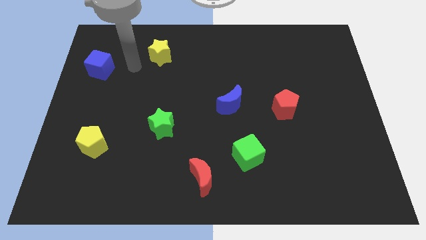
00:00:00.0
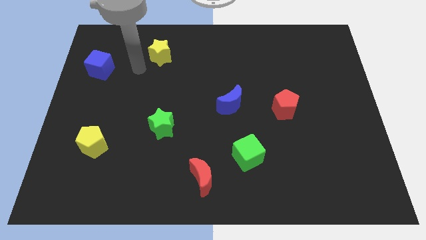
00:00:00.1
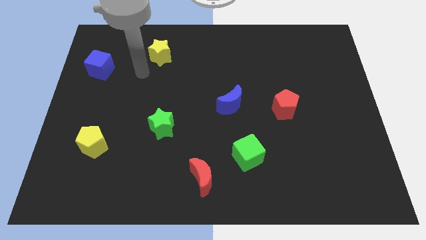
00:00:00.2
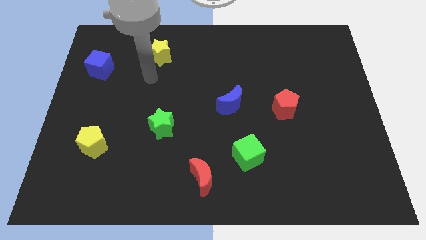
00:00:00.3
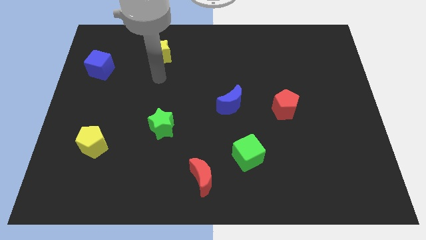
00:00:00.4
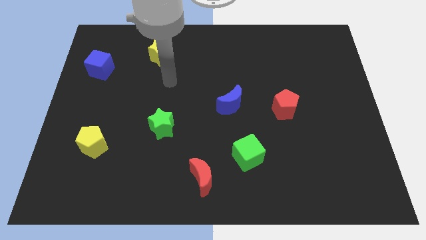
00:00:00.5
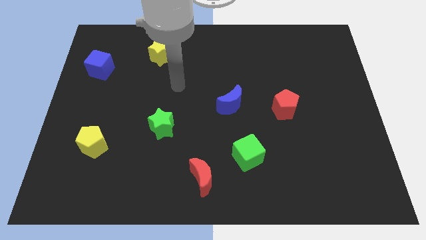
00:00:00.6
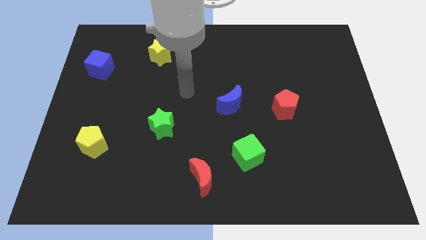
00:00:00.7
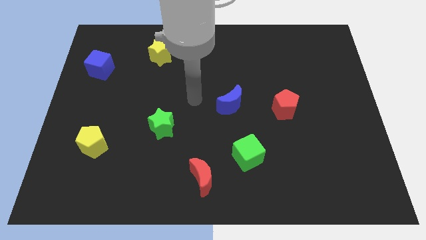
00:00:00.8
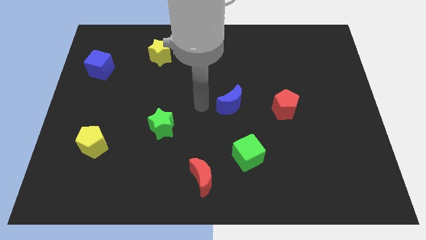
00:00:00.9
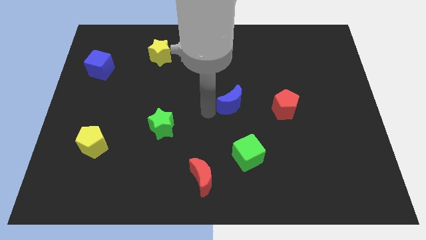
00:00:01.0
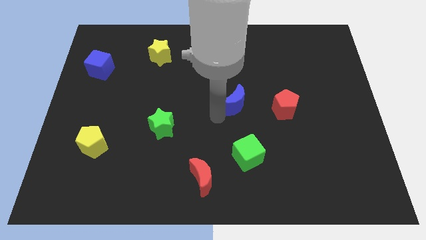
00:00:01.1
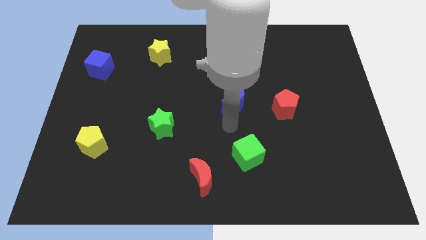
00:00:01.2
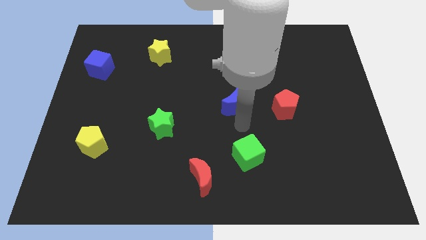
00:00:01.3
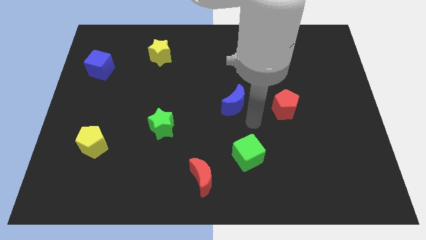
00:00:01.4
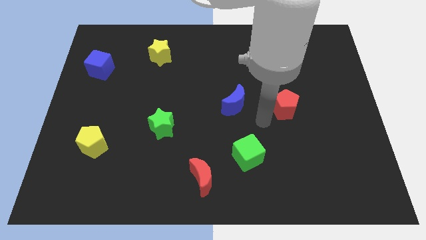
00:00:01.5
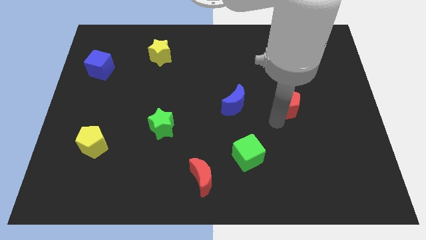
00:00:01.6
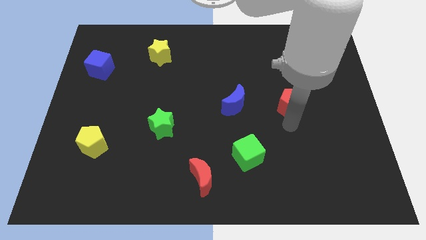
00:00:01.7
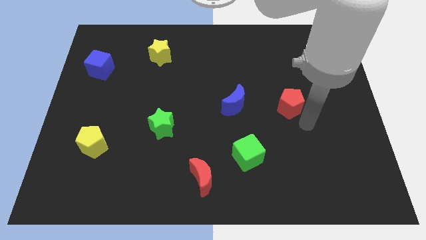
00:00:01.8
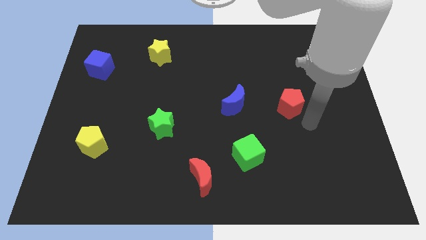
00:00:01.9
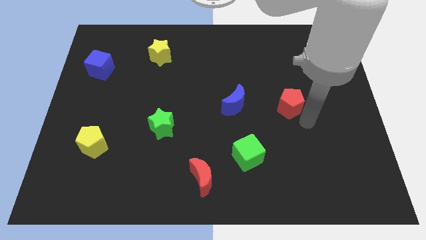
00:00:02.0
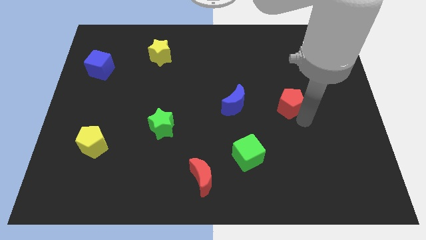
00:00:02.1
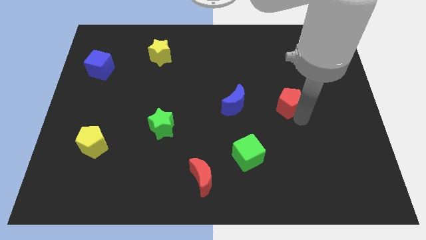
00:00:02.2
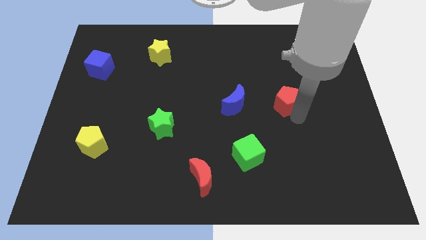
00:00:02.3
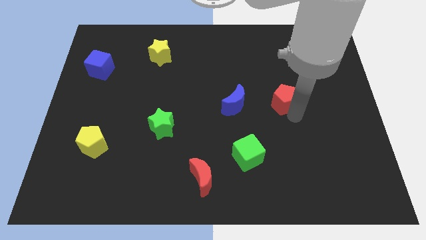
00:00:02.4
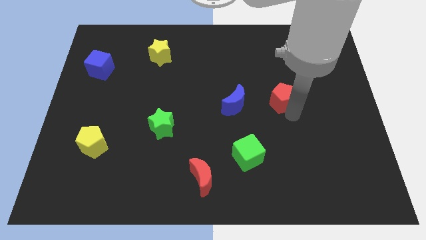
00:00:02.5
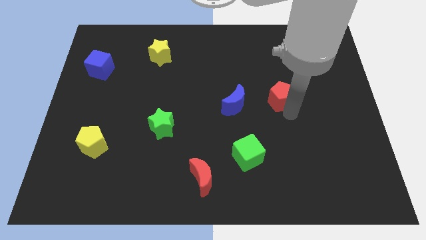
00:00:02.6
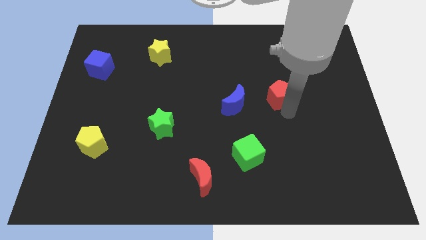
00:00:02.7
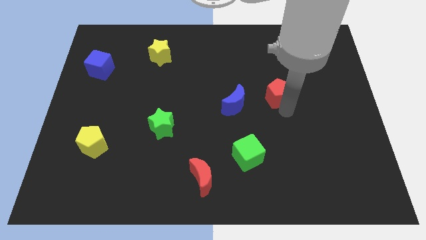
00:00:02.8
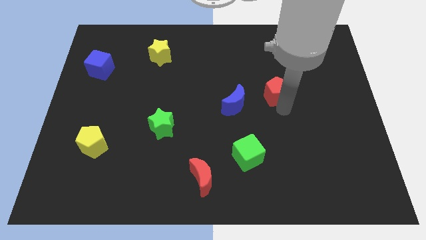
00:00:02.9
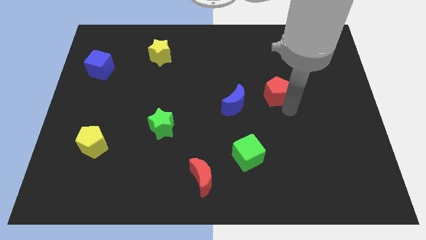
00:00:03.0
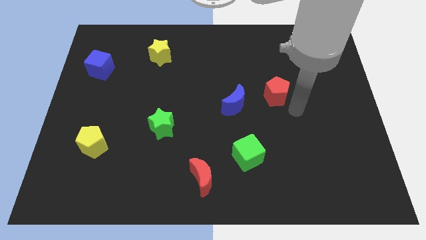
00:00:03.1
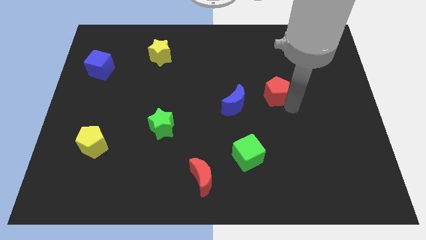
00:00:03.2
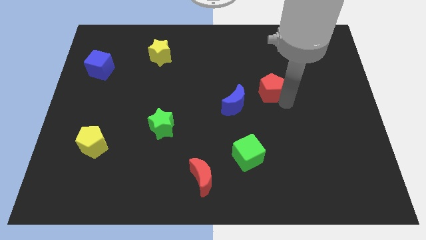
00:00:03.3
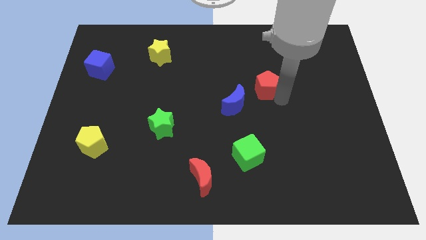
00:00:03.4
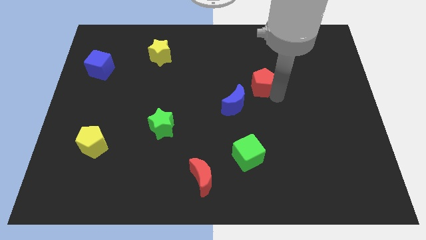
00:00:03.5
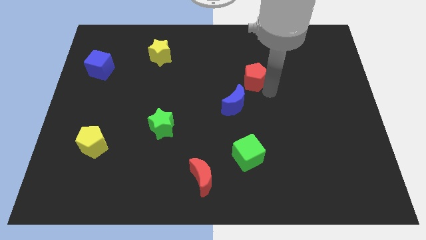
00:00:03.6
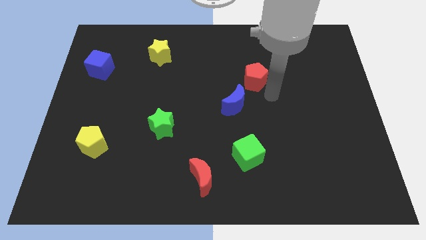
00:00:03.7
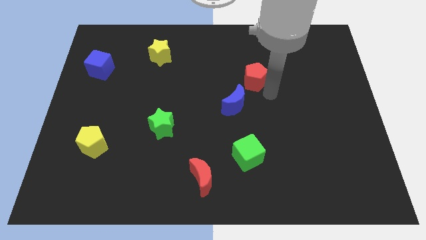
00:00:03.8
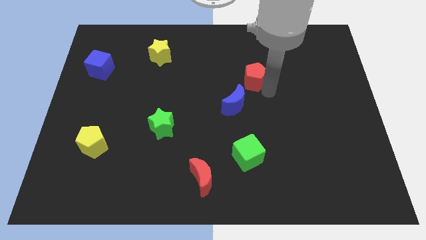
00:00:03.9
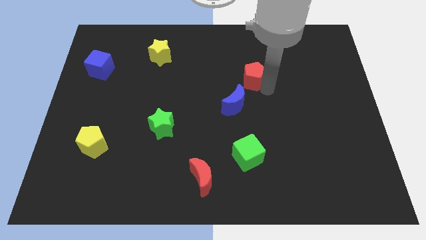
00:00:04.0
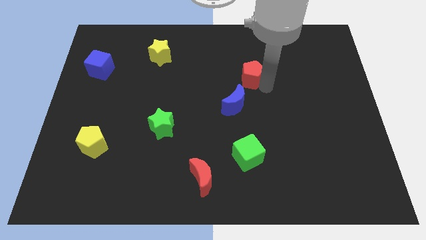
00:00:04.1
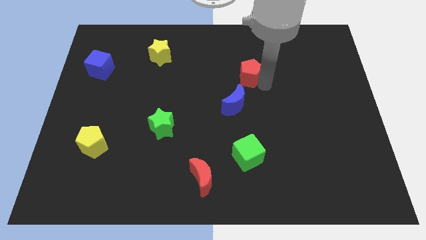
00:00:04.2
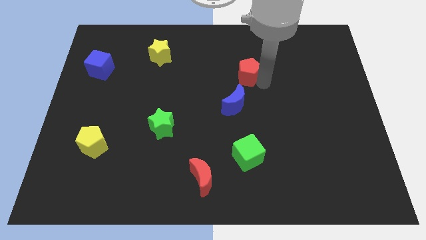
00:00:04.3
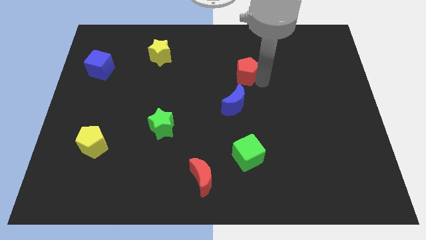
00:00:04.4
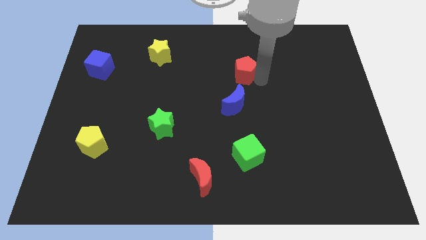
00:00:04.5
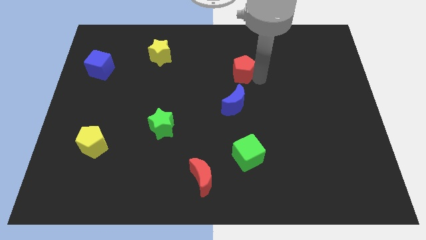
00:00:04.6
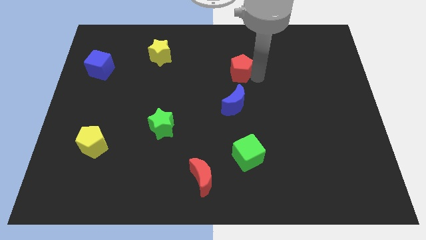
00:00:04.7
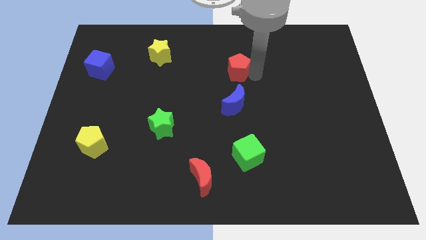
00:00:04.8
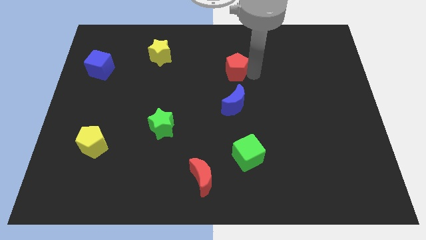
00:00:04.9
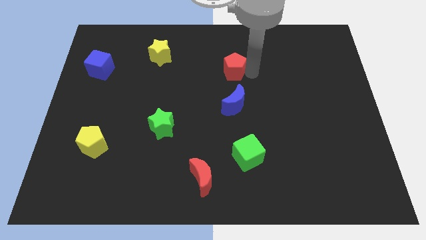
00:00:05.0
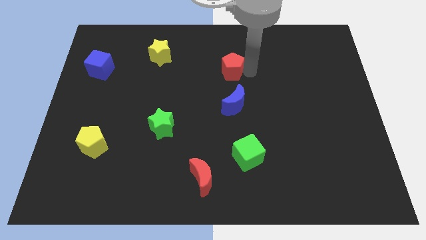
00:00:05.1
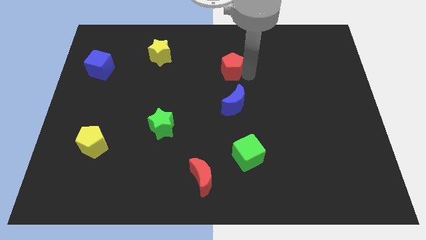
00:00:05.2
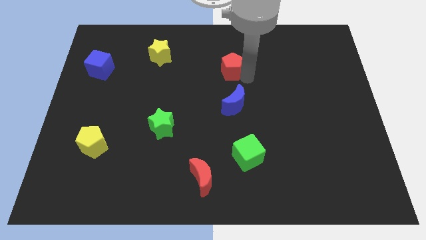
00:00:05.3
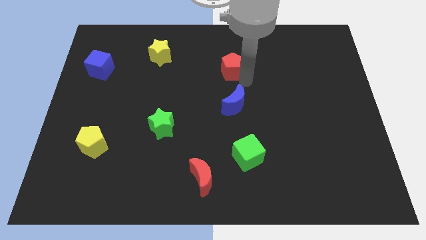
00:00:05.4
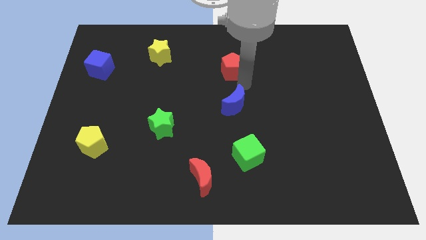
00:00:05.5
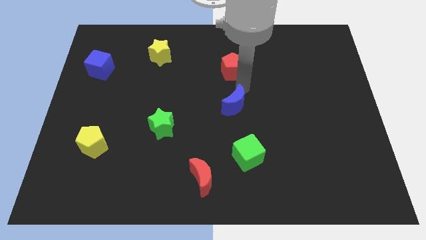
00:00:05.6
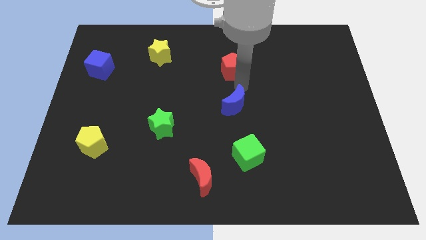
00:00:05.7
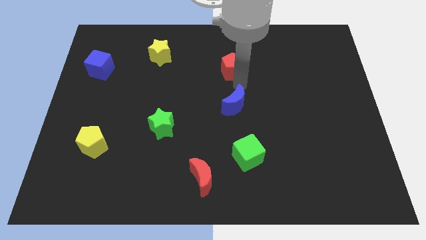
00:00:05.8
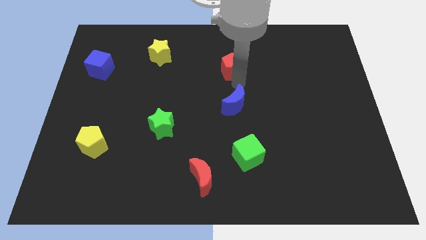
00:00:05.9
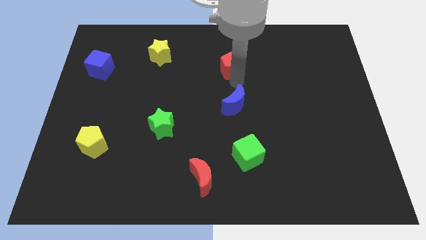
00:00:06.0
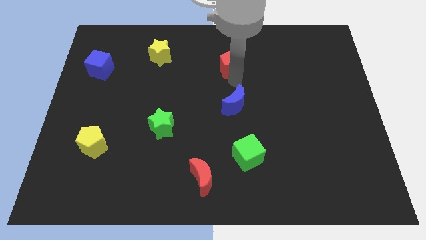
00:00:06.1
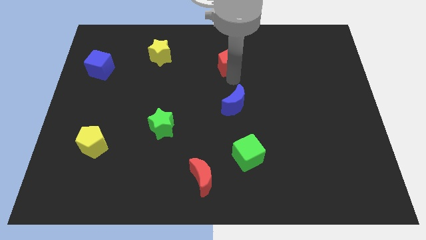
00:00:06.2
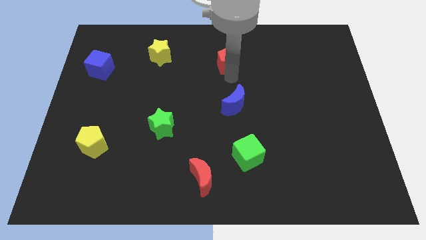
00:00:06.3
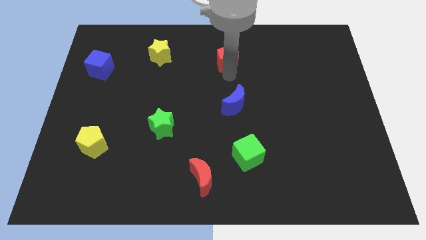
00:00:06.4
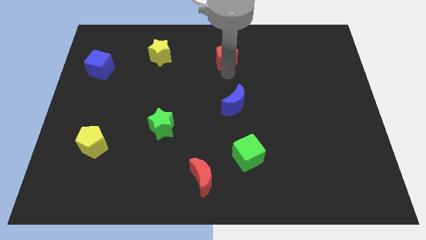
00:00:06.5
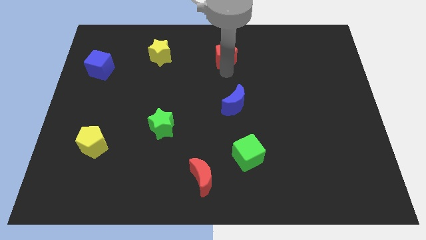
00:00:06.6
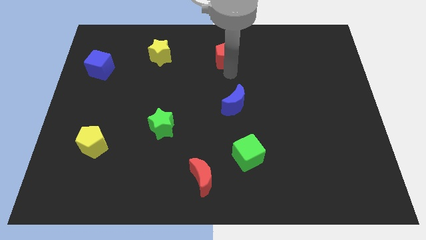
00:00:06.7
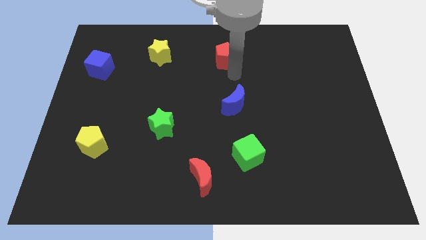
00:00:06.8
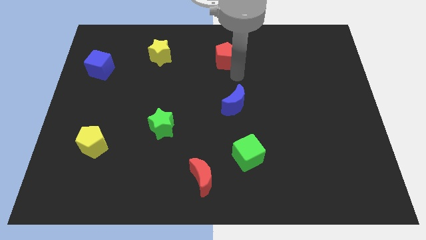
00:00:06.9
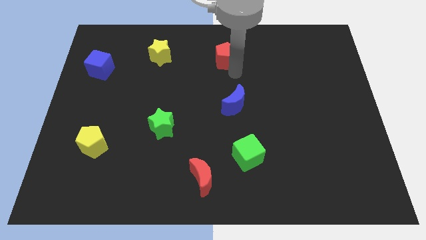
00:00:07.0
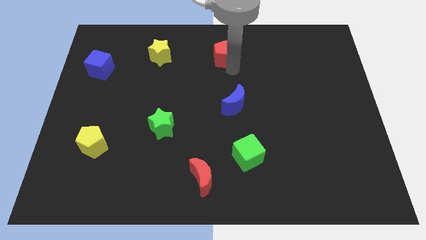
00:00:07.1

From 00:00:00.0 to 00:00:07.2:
push the red pentagon to the top
